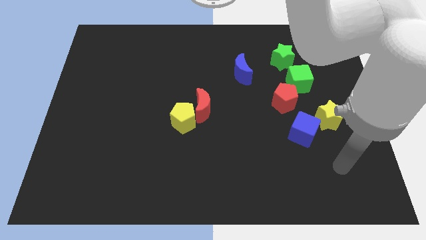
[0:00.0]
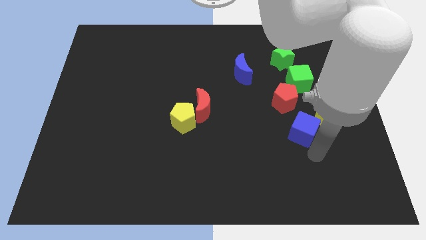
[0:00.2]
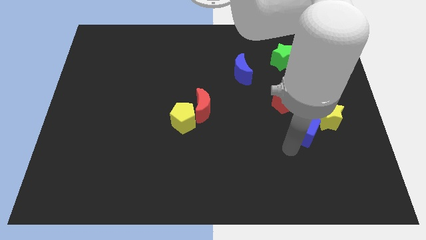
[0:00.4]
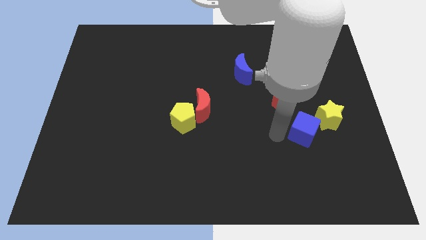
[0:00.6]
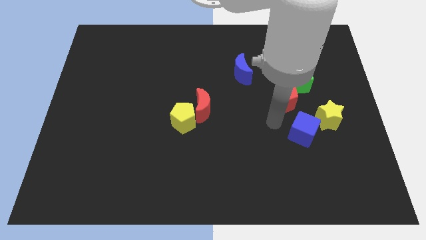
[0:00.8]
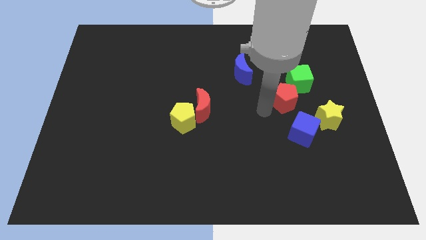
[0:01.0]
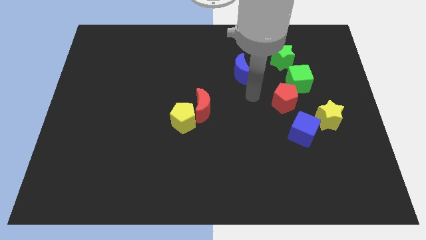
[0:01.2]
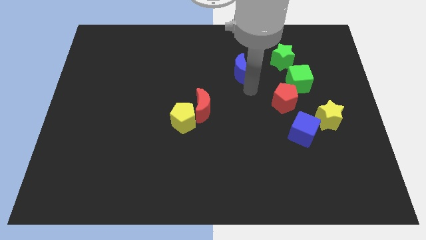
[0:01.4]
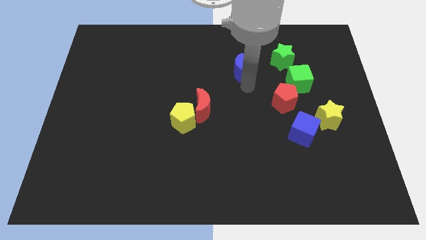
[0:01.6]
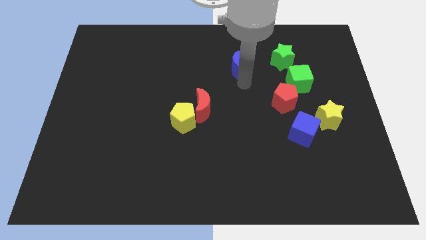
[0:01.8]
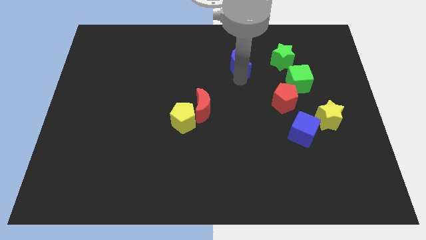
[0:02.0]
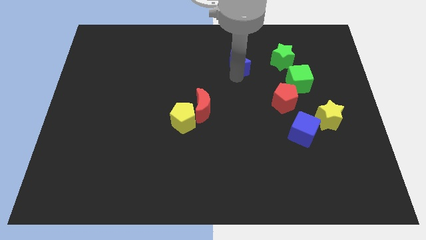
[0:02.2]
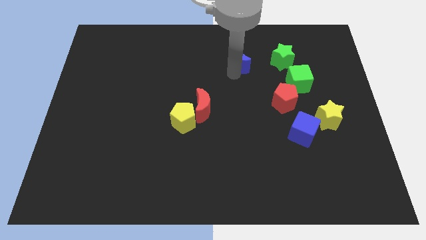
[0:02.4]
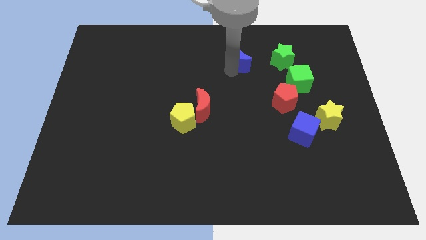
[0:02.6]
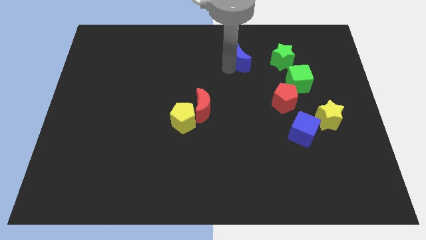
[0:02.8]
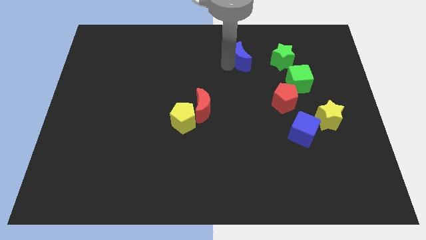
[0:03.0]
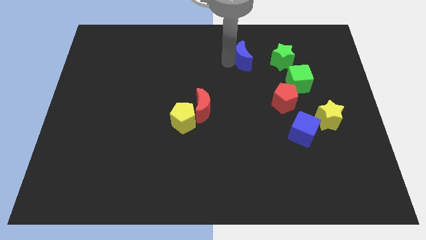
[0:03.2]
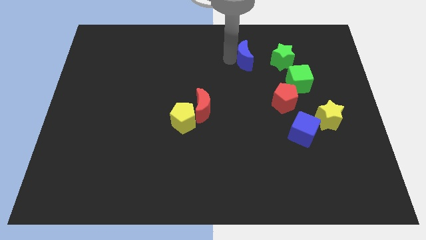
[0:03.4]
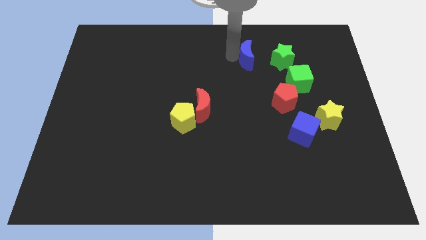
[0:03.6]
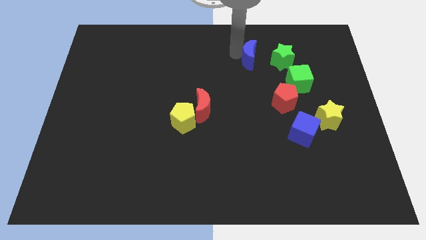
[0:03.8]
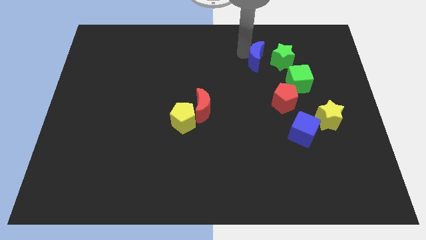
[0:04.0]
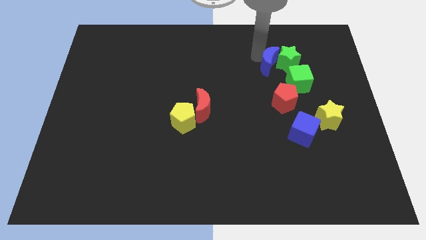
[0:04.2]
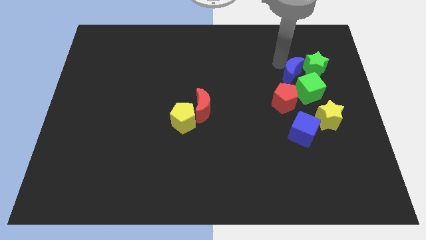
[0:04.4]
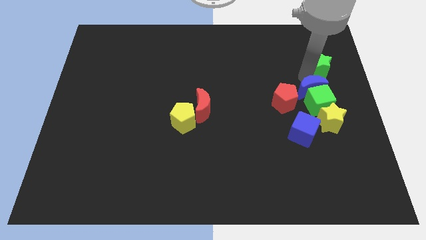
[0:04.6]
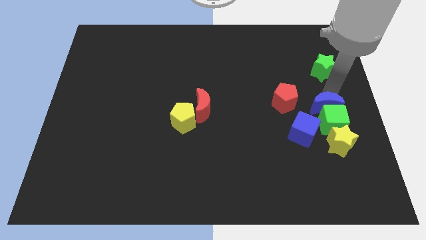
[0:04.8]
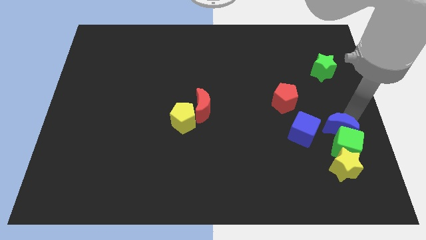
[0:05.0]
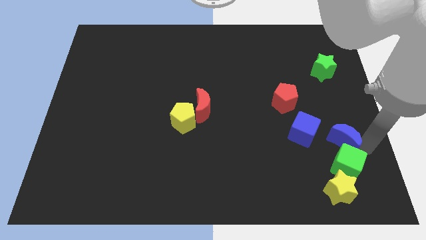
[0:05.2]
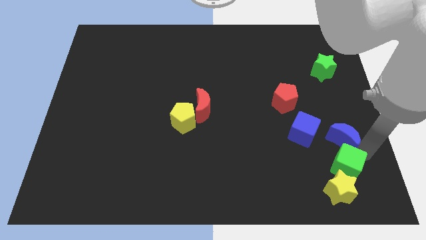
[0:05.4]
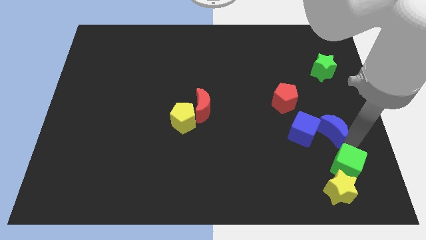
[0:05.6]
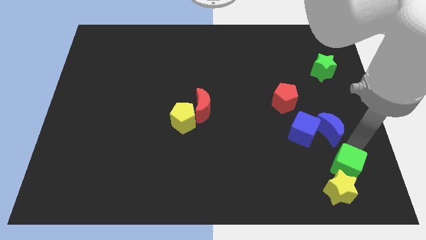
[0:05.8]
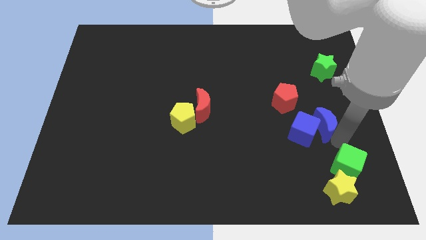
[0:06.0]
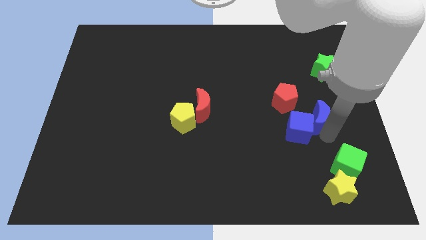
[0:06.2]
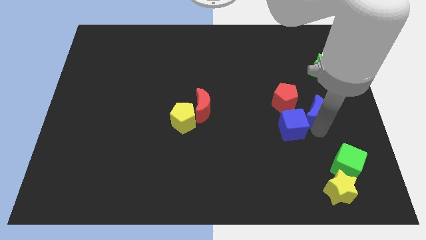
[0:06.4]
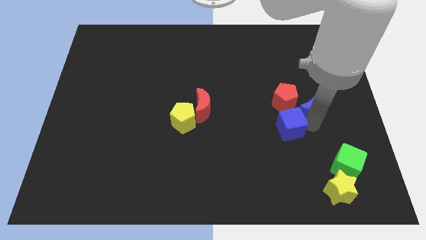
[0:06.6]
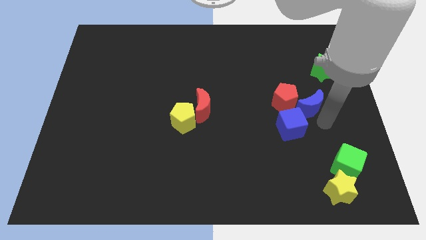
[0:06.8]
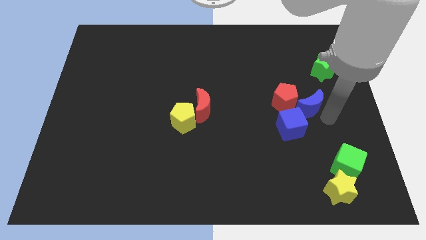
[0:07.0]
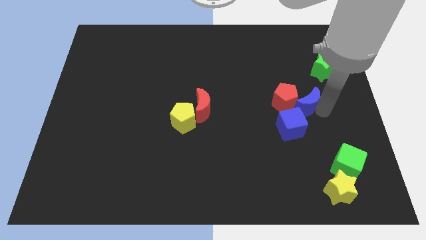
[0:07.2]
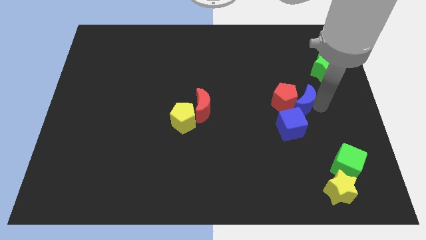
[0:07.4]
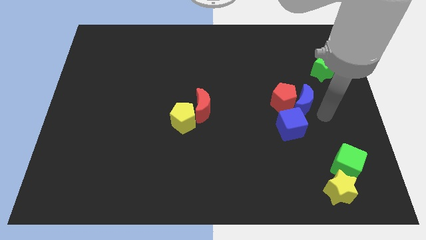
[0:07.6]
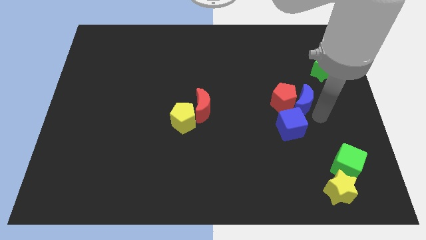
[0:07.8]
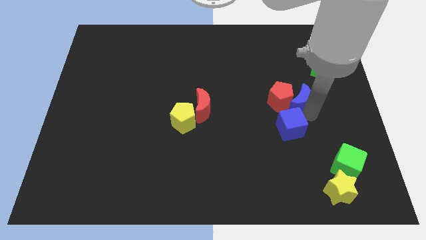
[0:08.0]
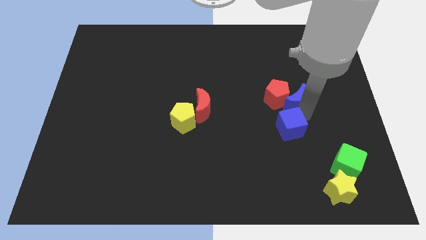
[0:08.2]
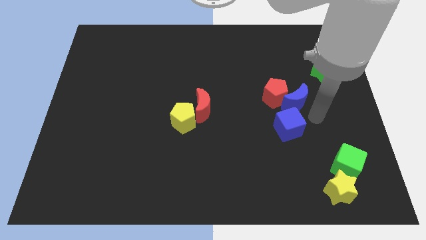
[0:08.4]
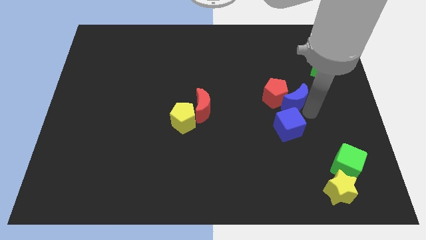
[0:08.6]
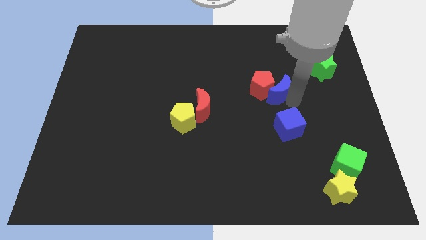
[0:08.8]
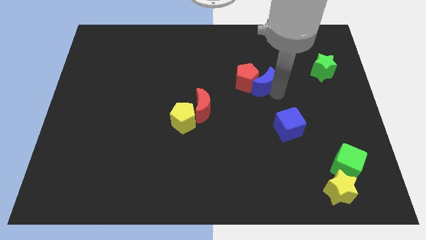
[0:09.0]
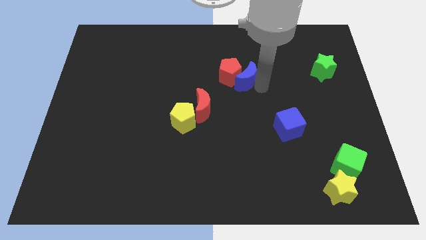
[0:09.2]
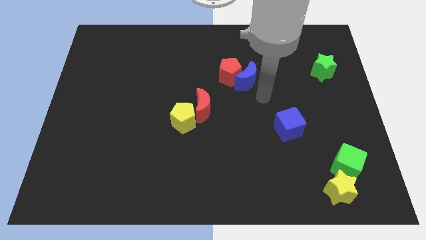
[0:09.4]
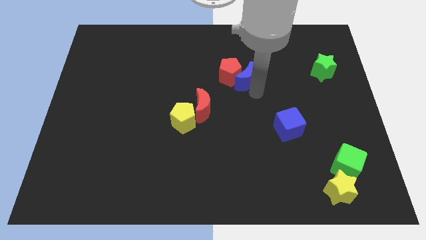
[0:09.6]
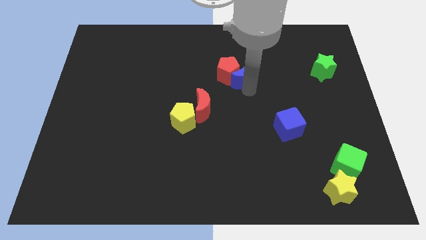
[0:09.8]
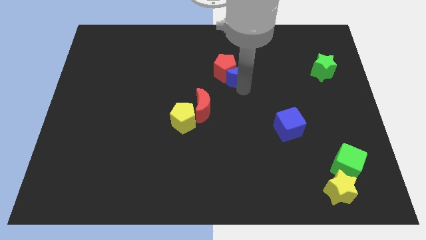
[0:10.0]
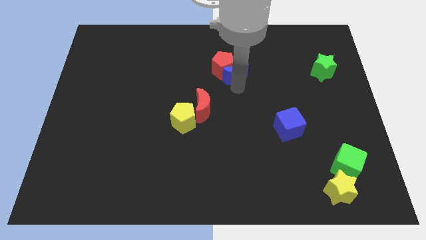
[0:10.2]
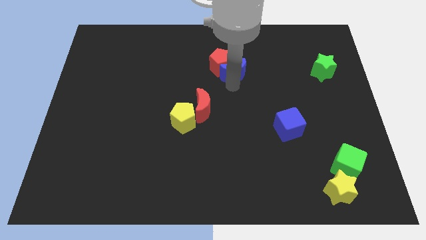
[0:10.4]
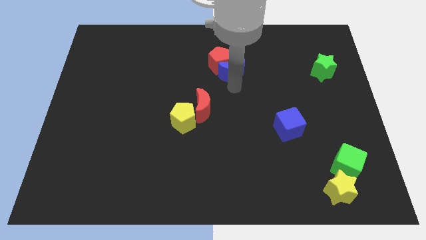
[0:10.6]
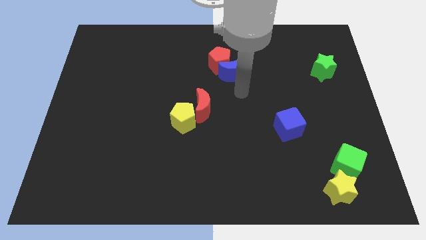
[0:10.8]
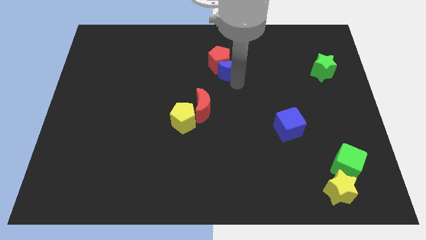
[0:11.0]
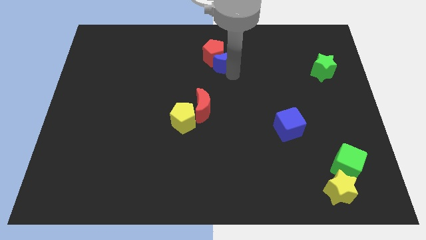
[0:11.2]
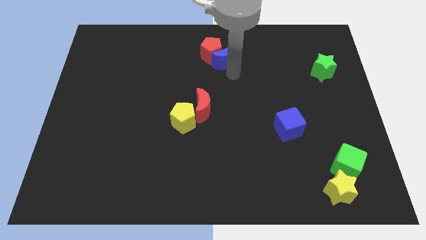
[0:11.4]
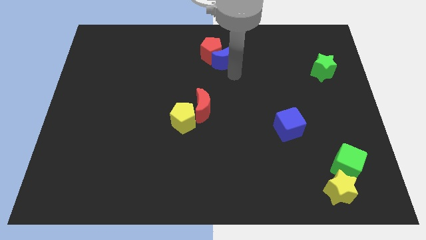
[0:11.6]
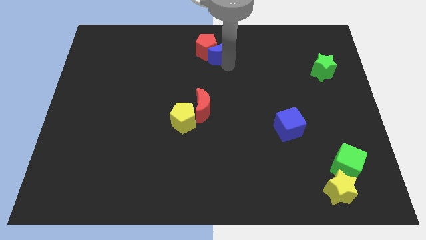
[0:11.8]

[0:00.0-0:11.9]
put the blue moon to the towards your base

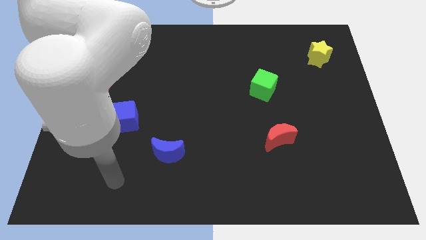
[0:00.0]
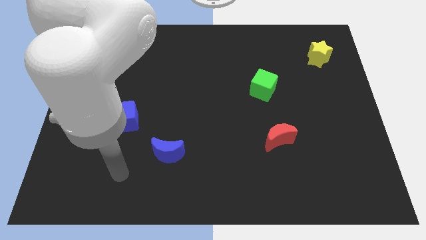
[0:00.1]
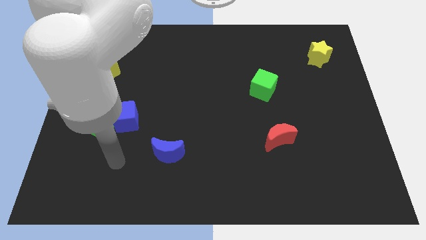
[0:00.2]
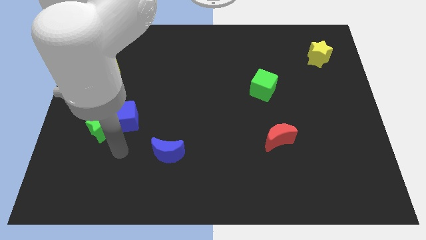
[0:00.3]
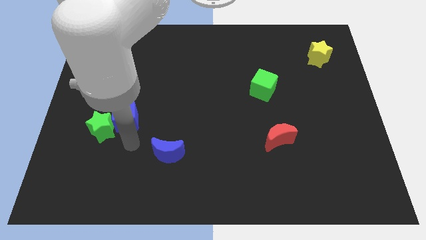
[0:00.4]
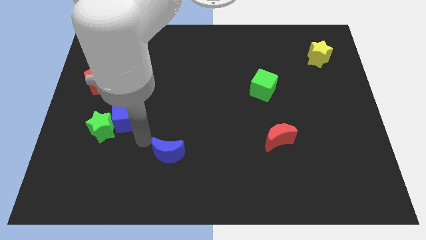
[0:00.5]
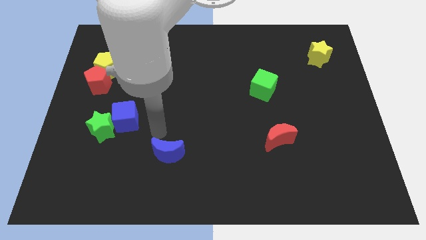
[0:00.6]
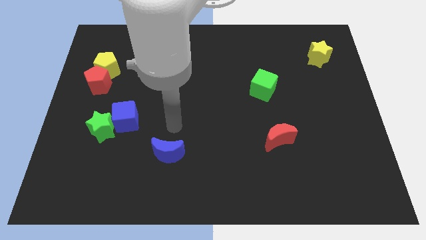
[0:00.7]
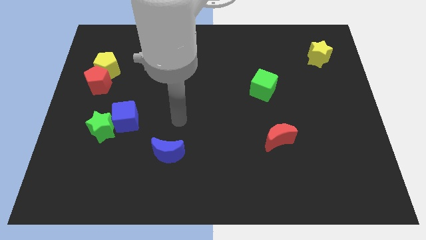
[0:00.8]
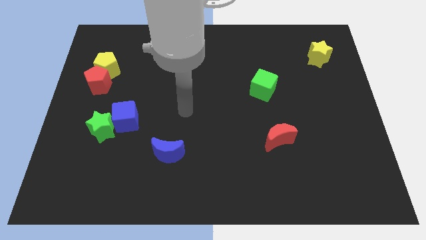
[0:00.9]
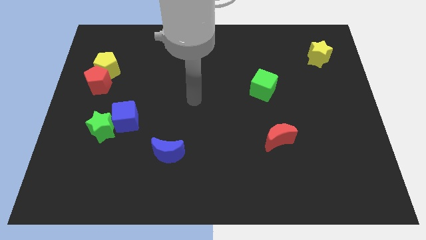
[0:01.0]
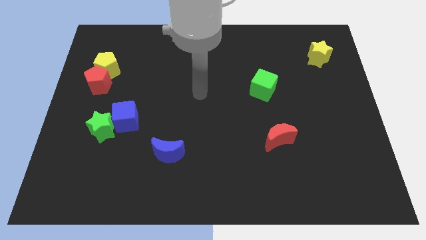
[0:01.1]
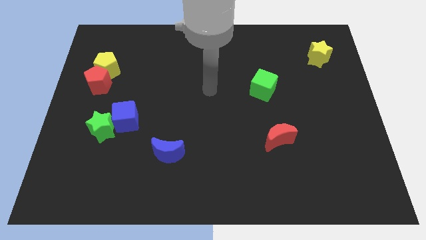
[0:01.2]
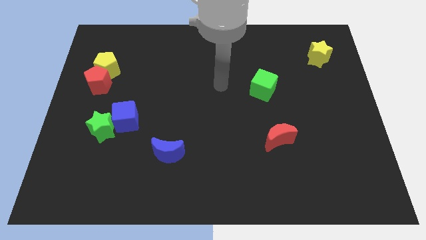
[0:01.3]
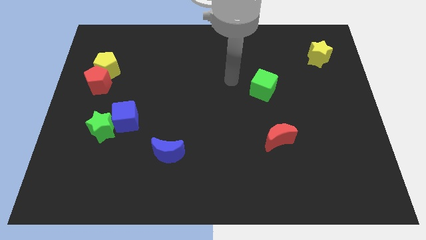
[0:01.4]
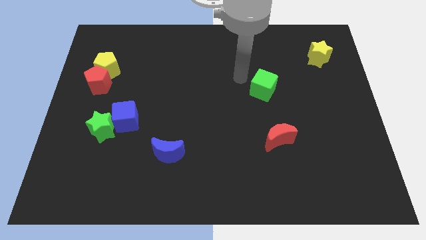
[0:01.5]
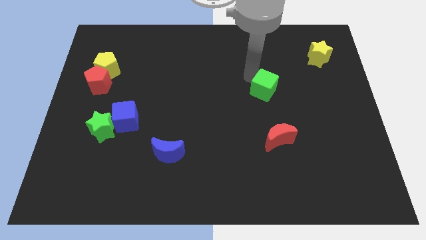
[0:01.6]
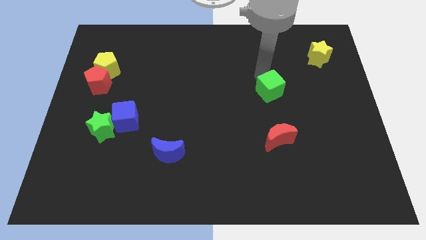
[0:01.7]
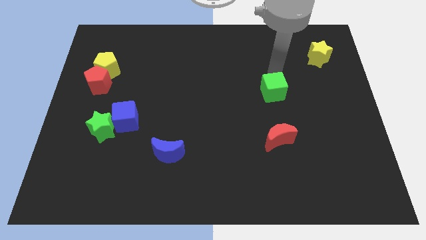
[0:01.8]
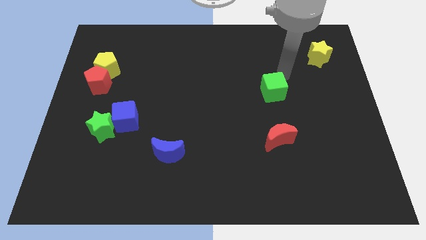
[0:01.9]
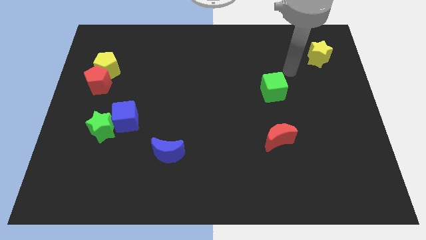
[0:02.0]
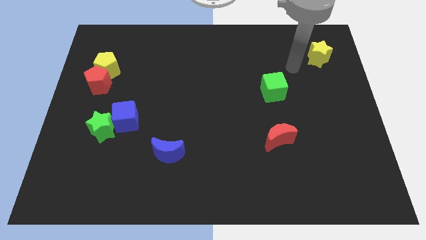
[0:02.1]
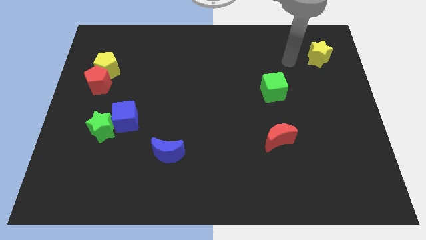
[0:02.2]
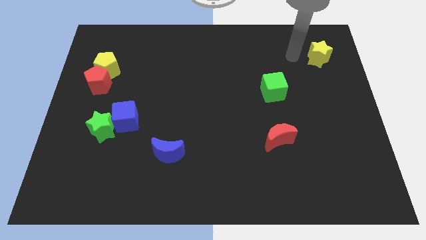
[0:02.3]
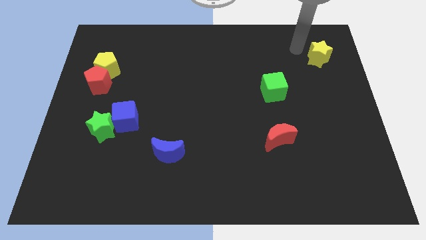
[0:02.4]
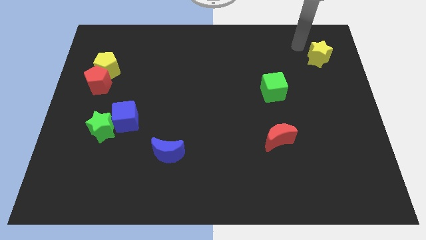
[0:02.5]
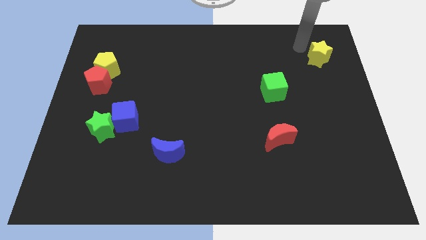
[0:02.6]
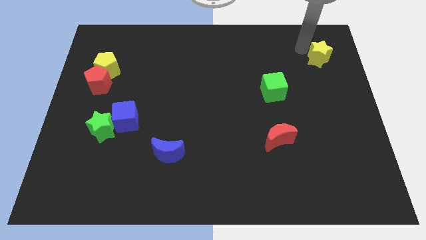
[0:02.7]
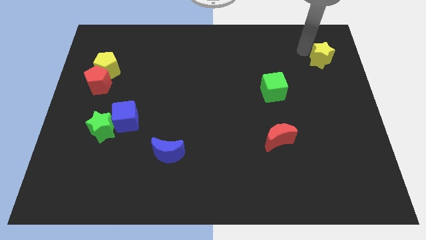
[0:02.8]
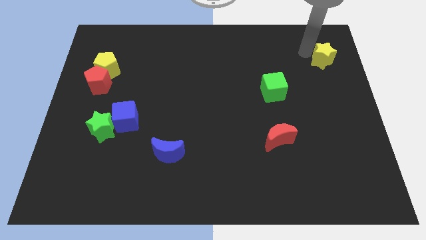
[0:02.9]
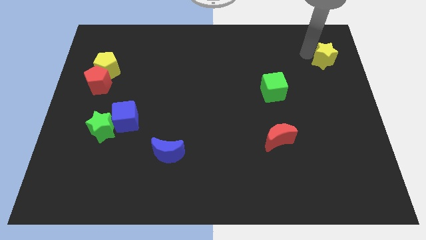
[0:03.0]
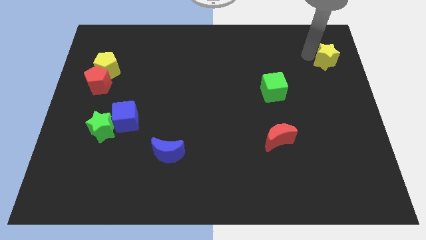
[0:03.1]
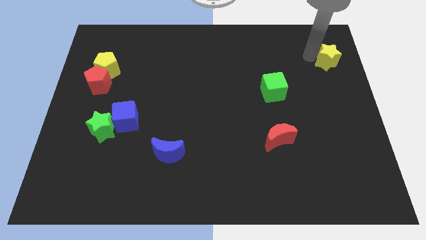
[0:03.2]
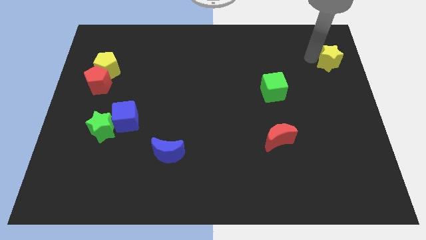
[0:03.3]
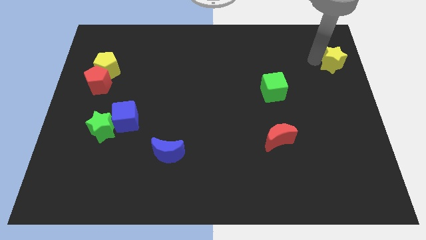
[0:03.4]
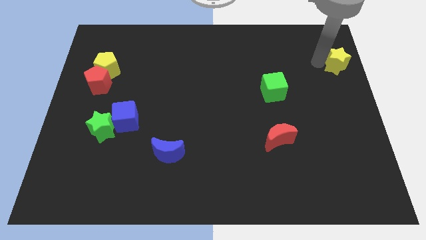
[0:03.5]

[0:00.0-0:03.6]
put the yellow star to the center right
